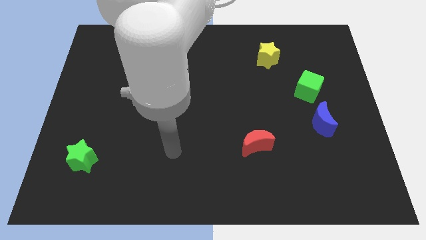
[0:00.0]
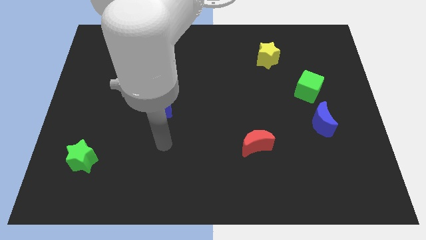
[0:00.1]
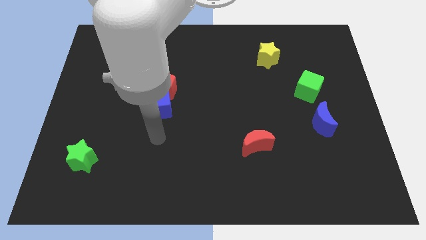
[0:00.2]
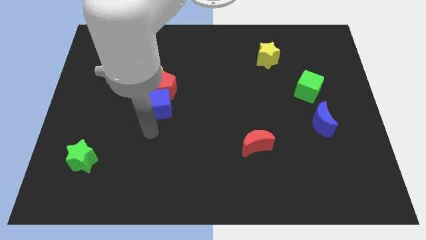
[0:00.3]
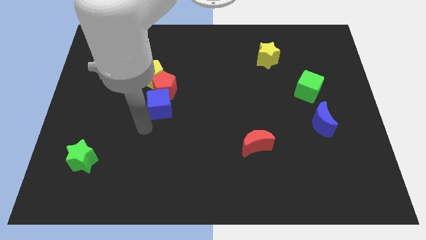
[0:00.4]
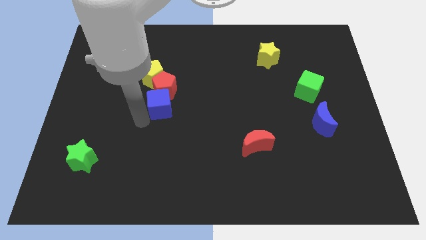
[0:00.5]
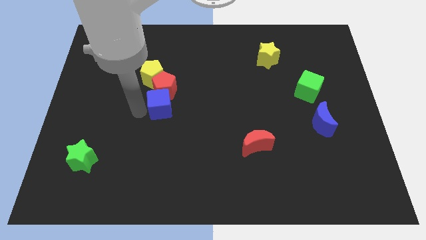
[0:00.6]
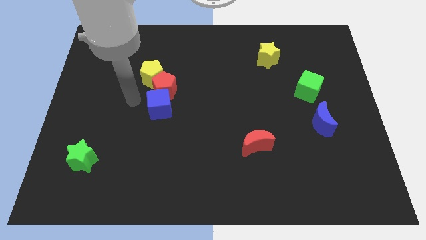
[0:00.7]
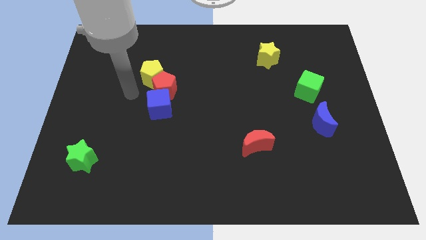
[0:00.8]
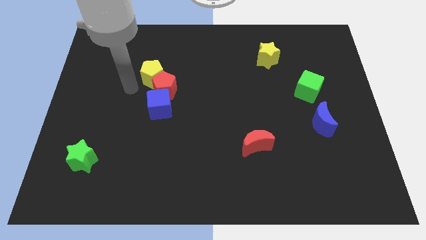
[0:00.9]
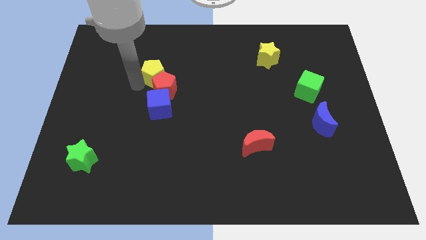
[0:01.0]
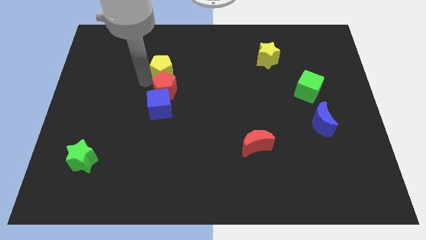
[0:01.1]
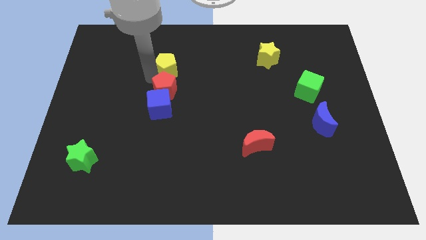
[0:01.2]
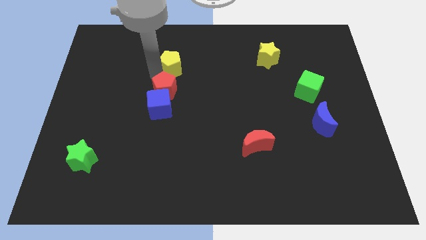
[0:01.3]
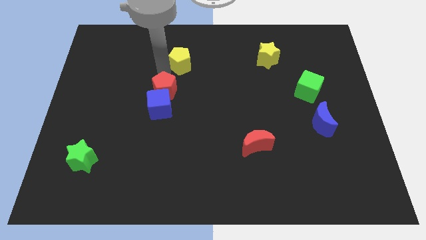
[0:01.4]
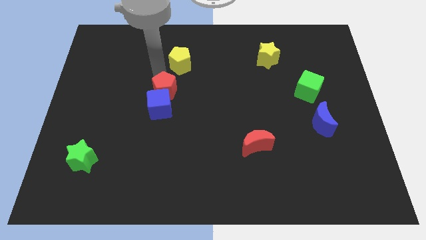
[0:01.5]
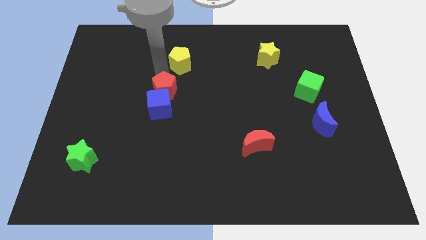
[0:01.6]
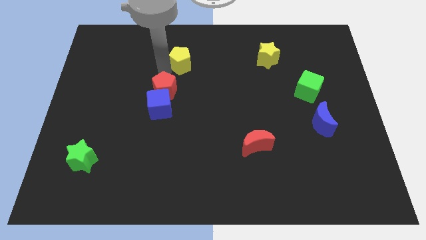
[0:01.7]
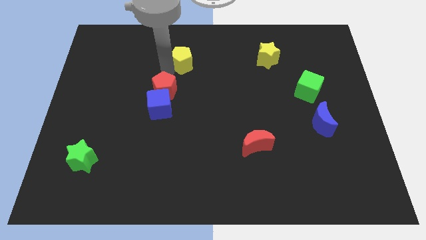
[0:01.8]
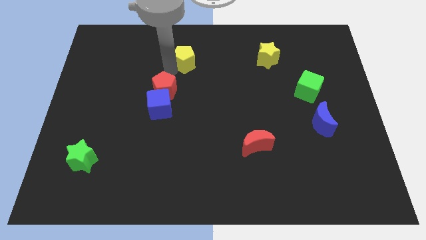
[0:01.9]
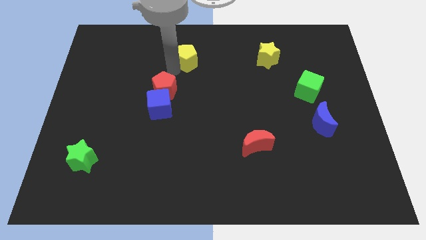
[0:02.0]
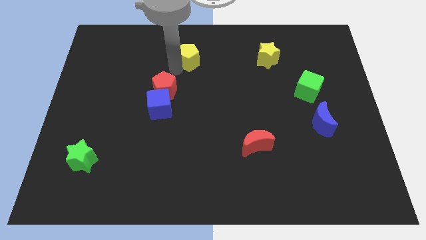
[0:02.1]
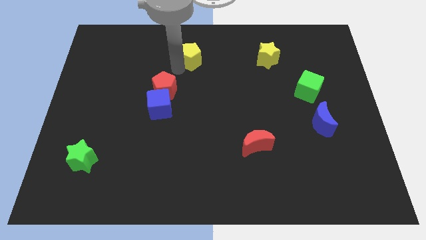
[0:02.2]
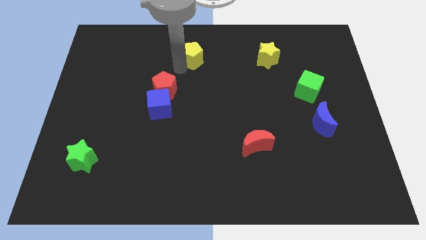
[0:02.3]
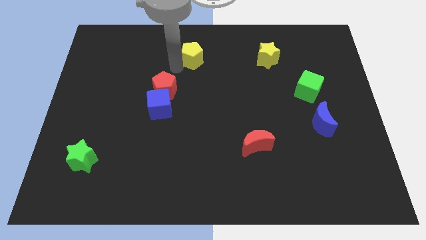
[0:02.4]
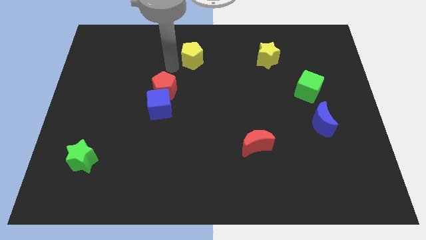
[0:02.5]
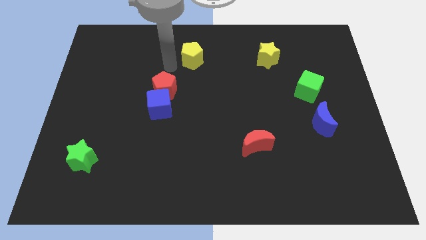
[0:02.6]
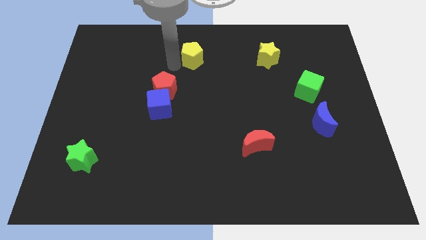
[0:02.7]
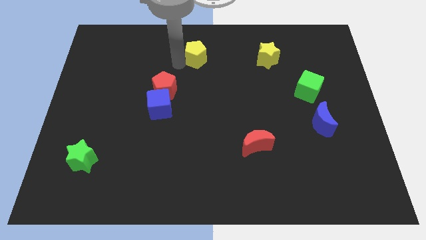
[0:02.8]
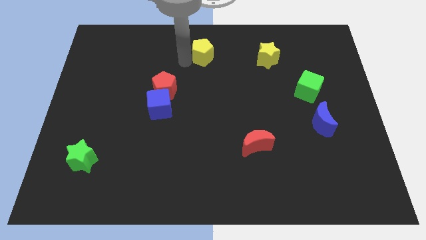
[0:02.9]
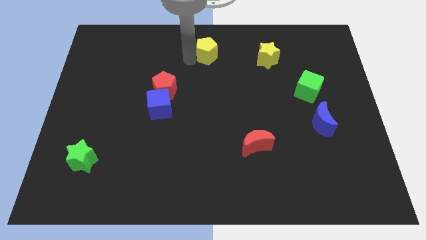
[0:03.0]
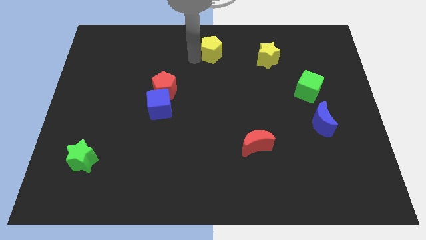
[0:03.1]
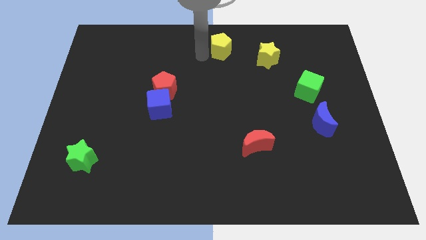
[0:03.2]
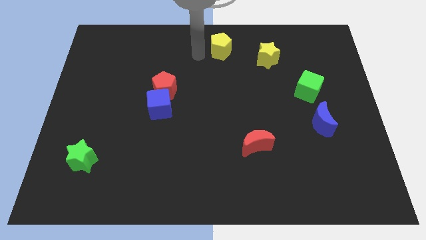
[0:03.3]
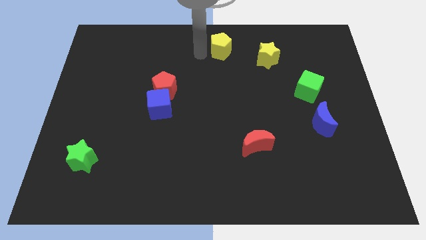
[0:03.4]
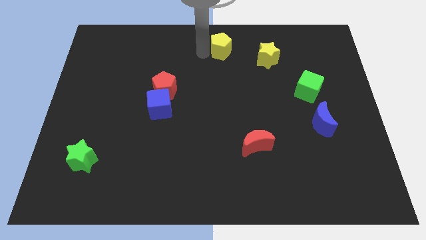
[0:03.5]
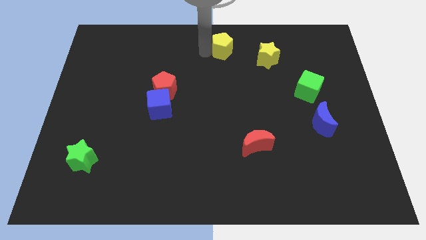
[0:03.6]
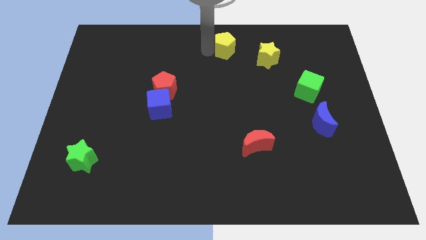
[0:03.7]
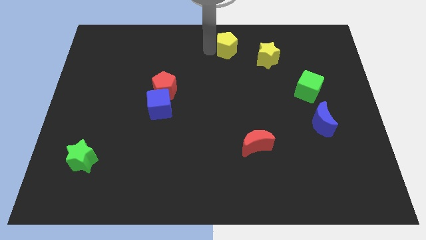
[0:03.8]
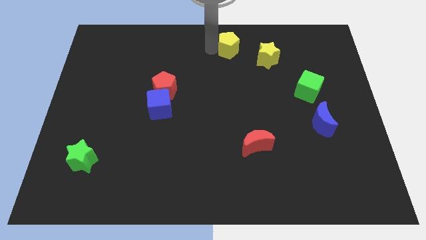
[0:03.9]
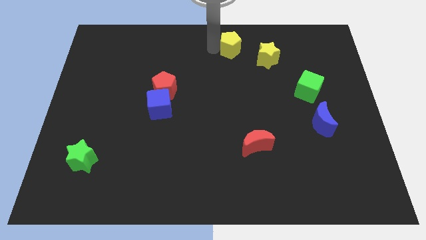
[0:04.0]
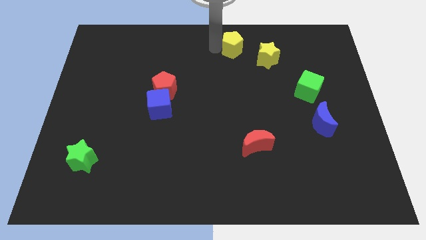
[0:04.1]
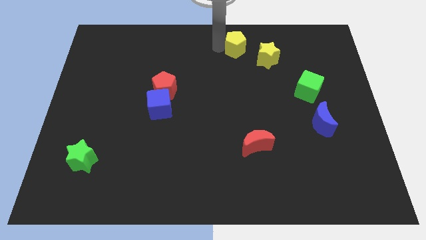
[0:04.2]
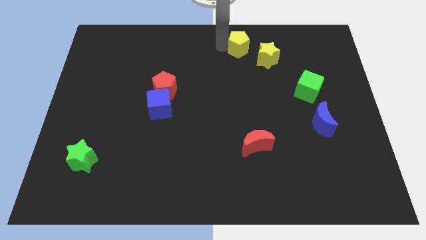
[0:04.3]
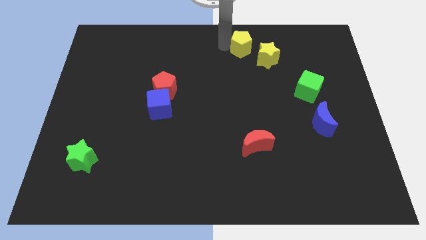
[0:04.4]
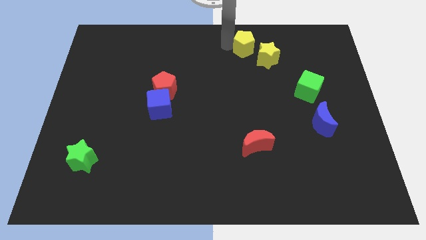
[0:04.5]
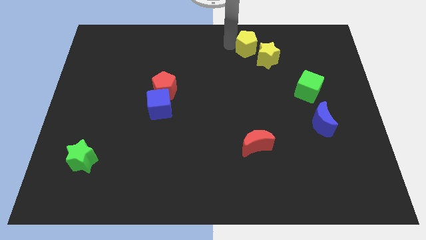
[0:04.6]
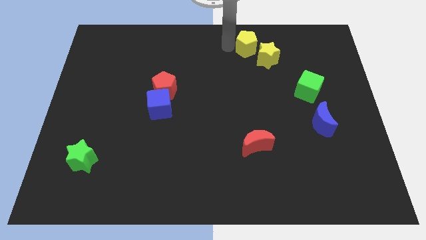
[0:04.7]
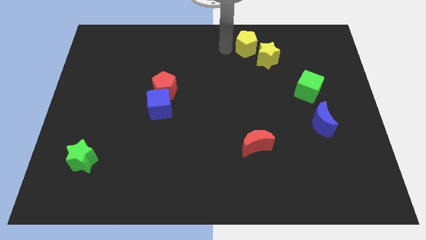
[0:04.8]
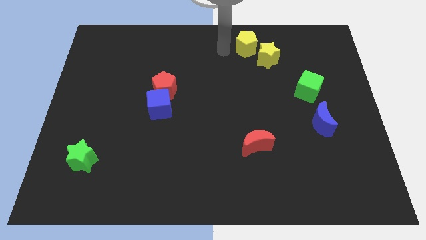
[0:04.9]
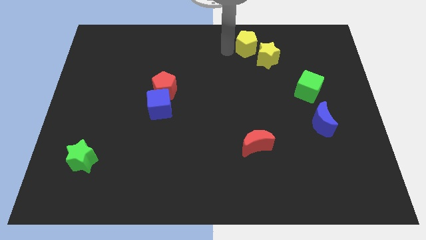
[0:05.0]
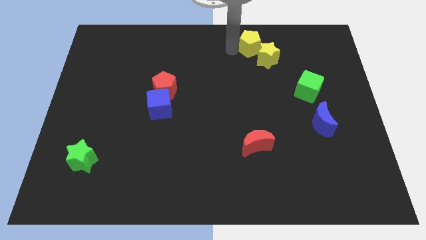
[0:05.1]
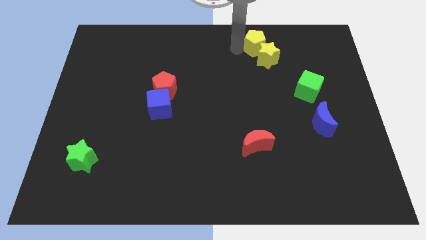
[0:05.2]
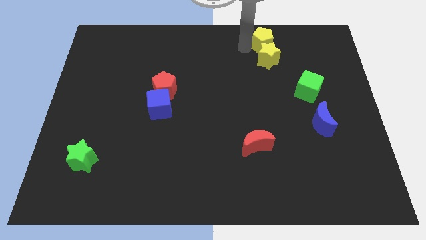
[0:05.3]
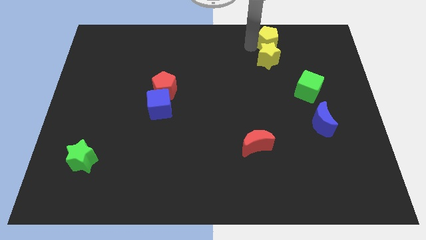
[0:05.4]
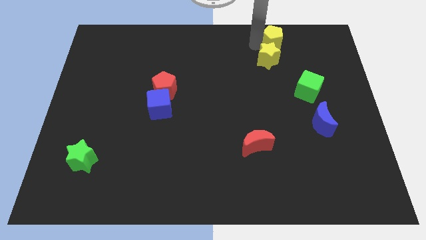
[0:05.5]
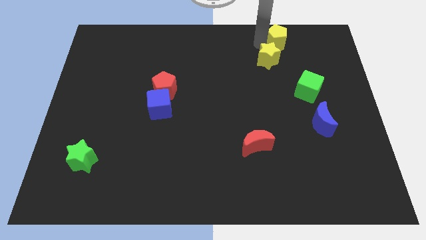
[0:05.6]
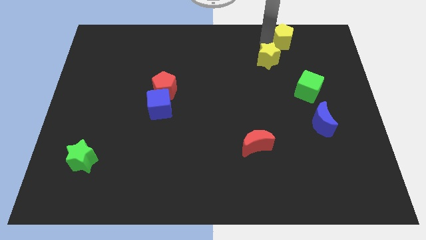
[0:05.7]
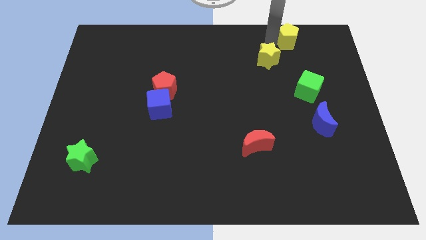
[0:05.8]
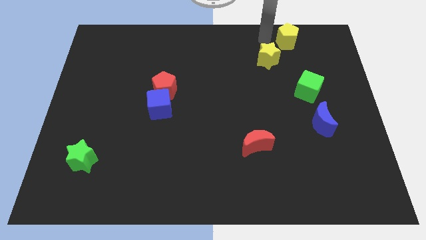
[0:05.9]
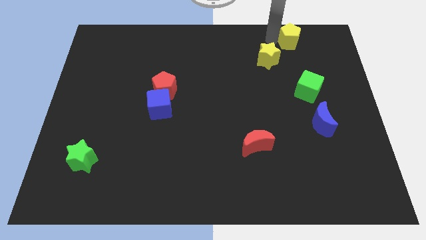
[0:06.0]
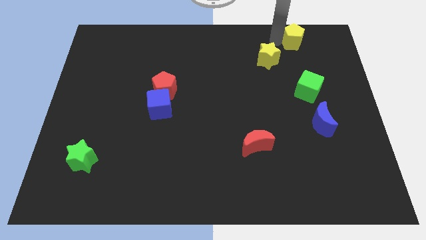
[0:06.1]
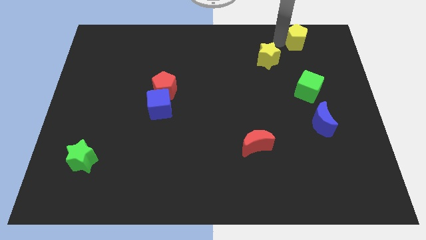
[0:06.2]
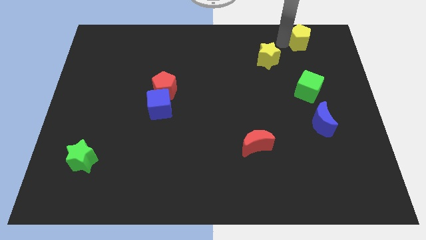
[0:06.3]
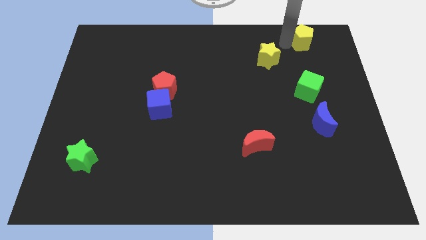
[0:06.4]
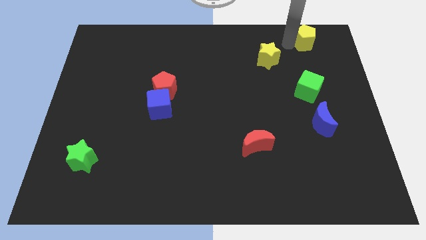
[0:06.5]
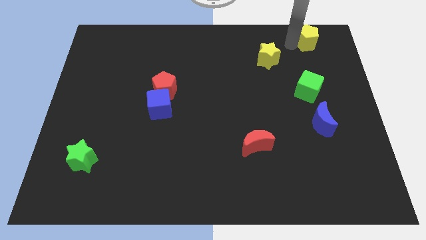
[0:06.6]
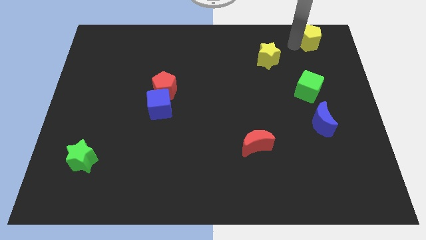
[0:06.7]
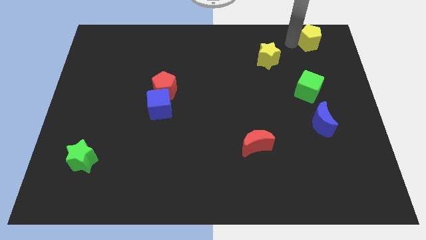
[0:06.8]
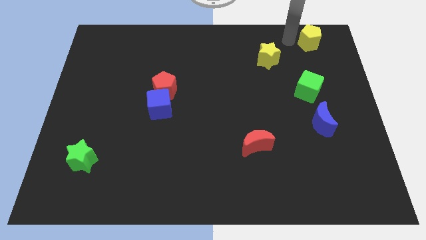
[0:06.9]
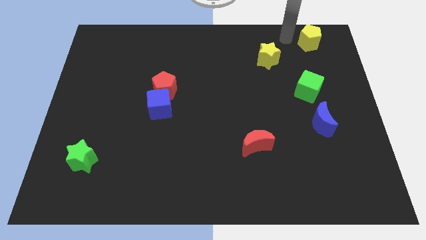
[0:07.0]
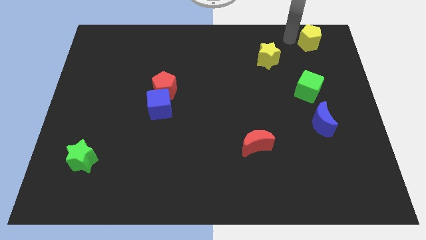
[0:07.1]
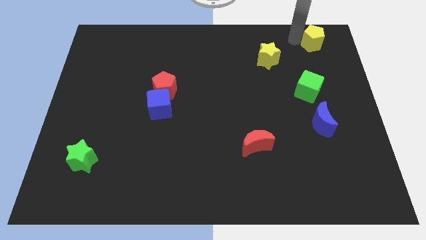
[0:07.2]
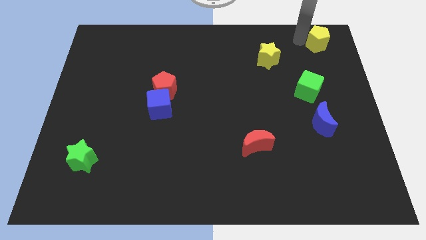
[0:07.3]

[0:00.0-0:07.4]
slide the yellow pentagon to the upper right corner
